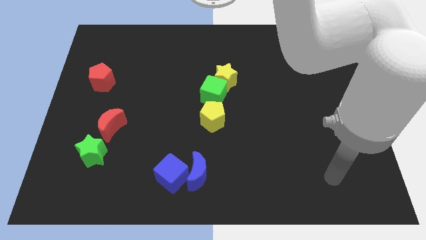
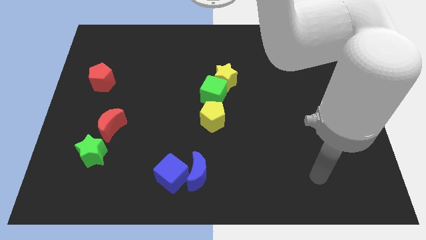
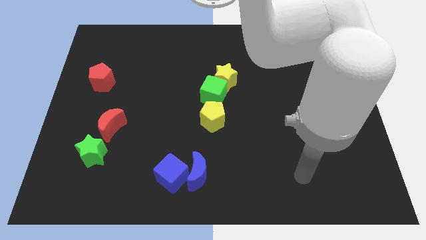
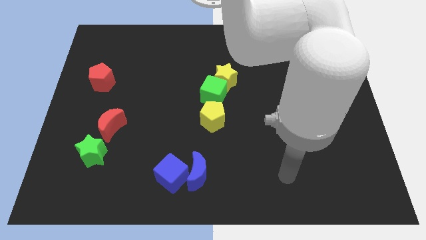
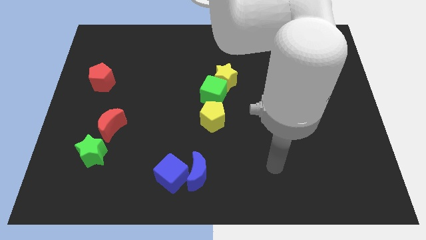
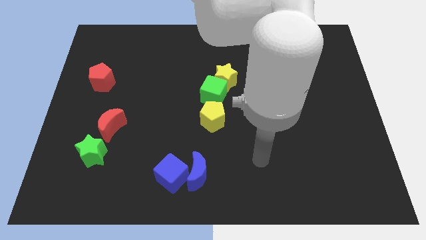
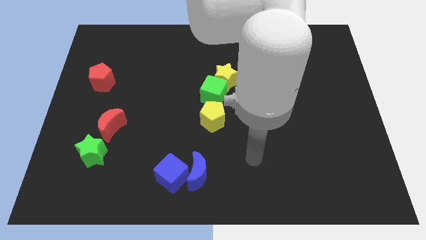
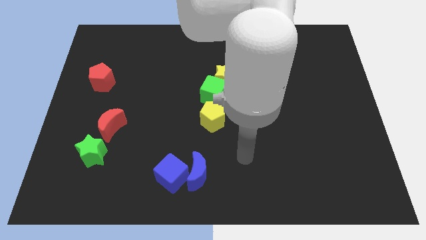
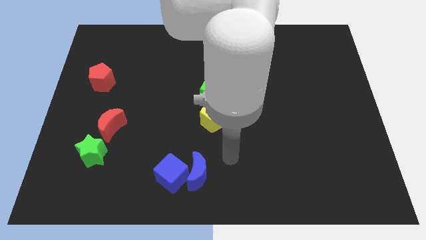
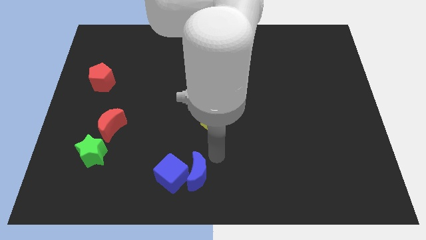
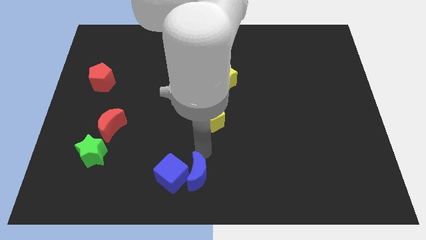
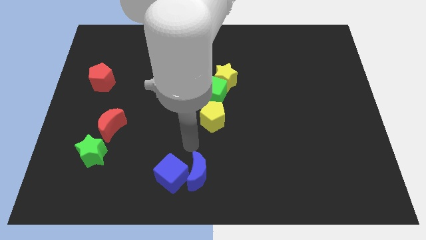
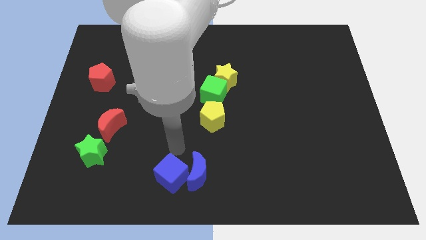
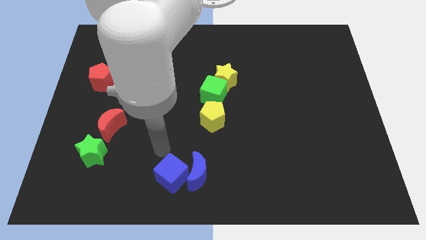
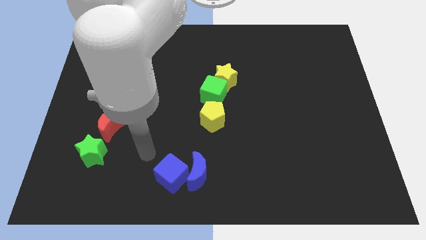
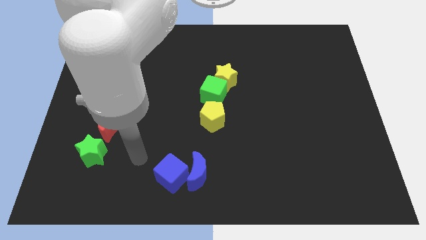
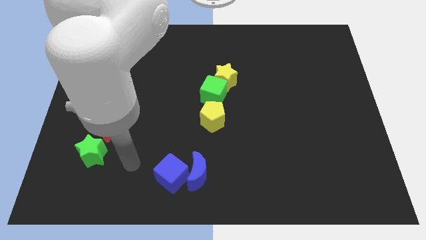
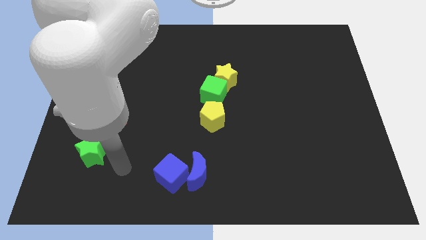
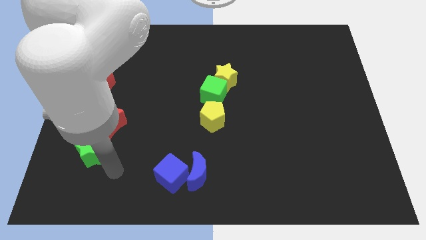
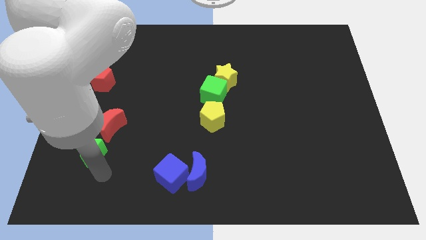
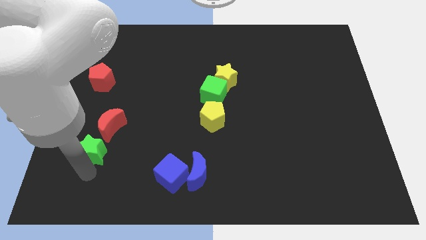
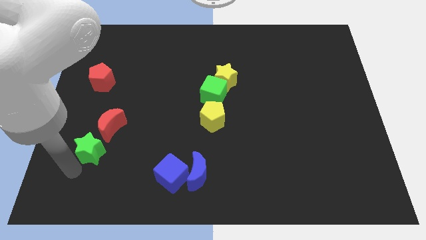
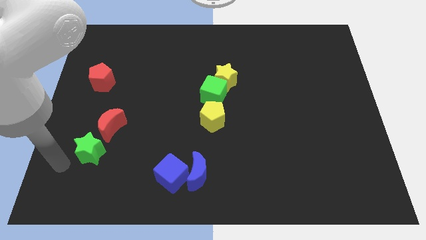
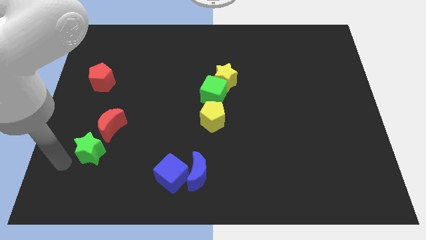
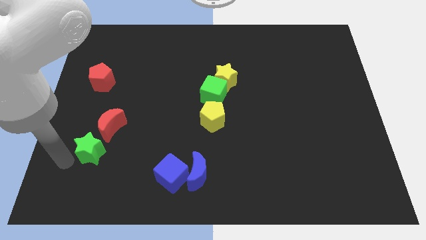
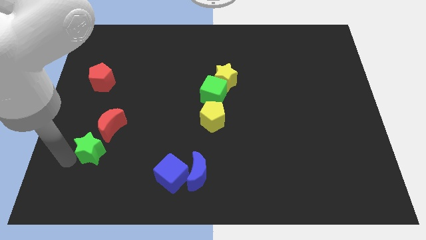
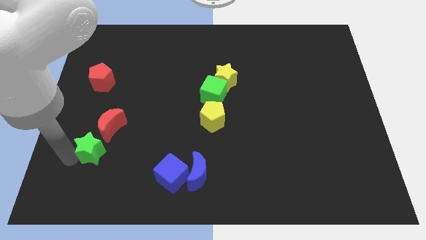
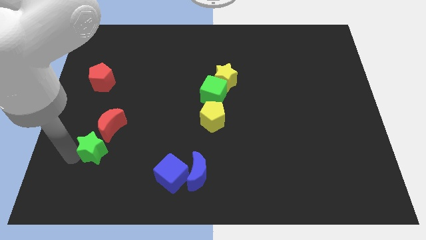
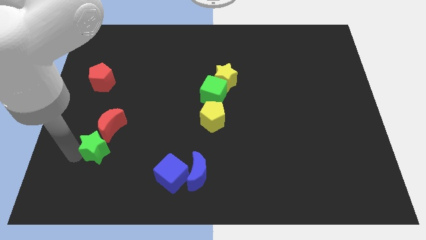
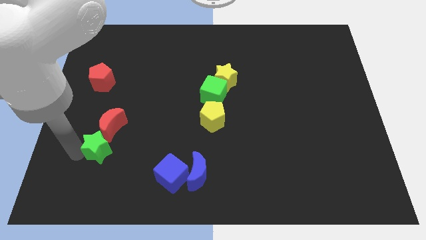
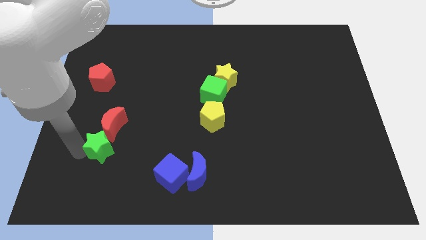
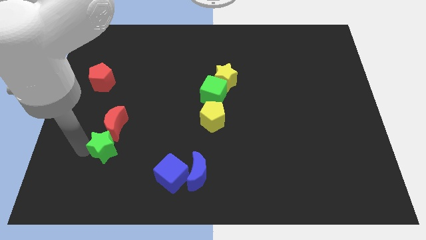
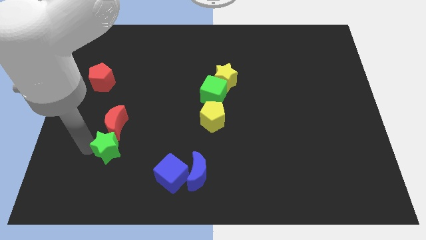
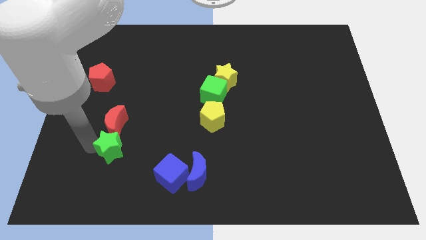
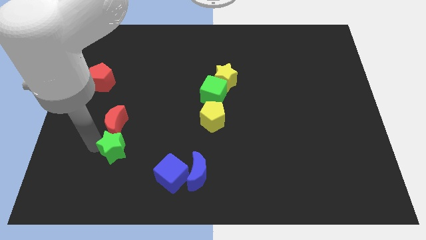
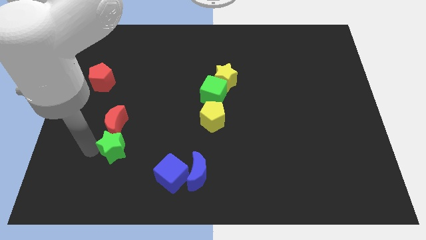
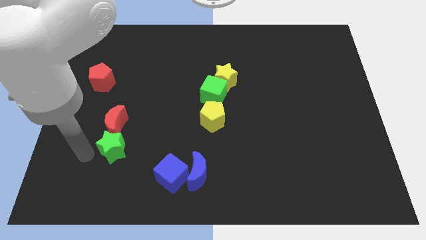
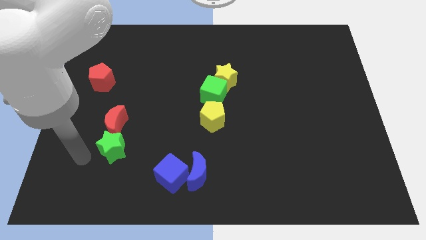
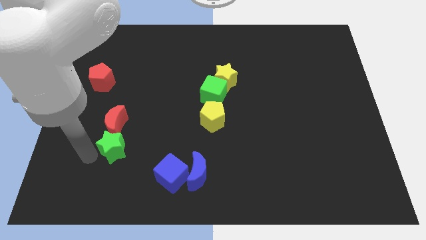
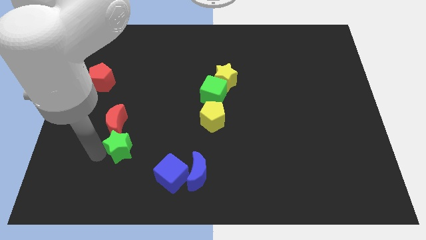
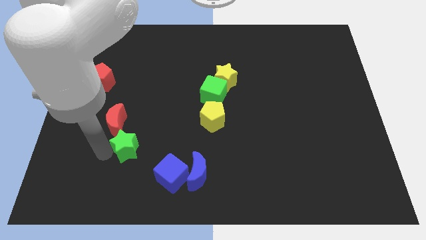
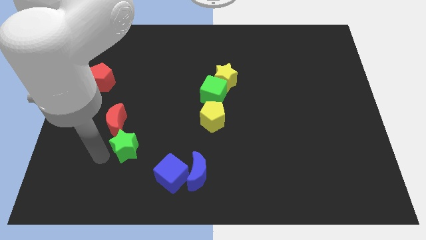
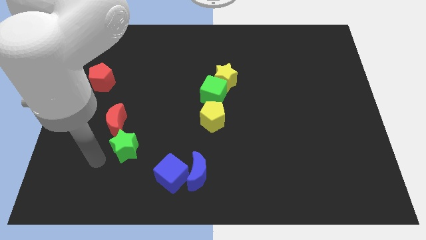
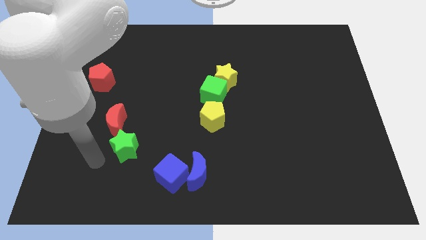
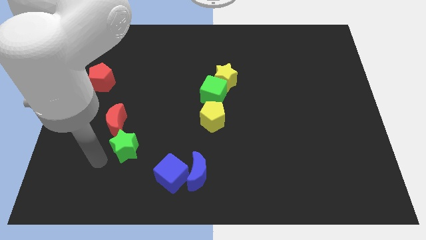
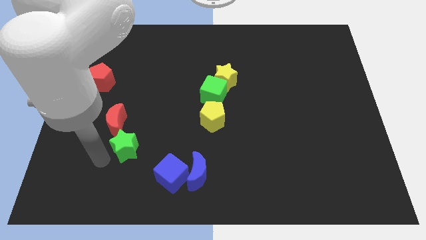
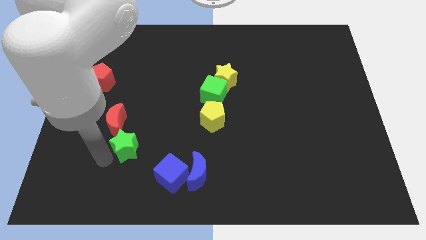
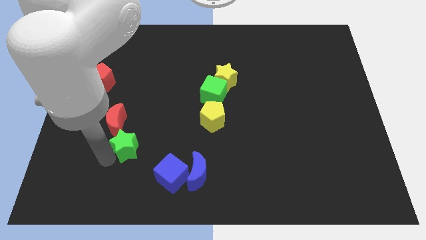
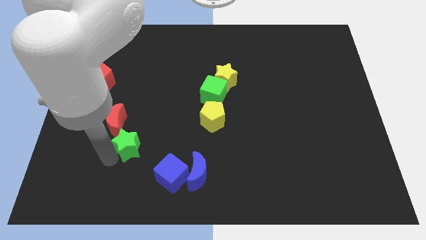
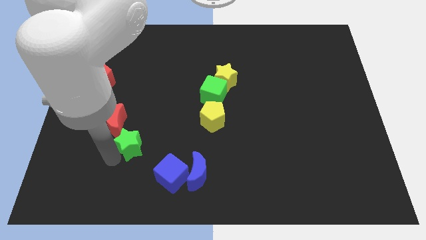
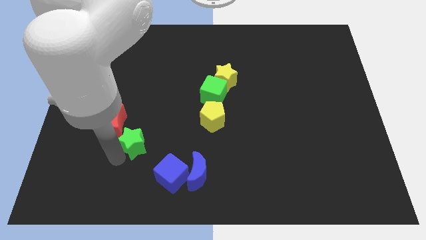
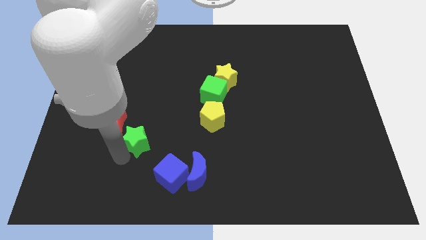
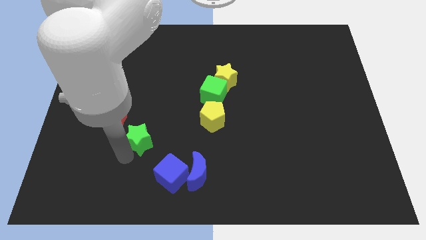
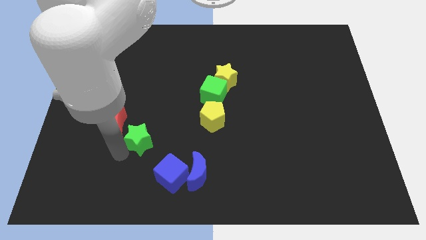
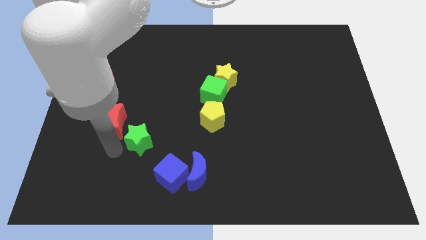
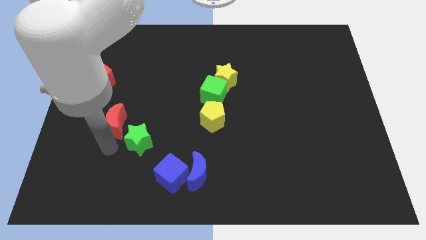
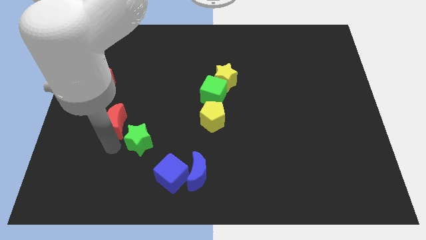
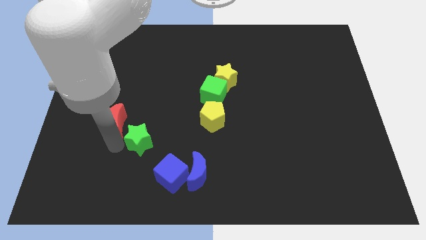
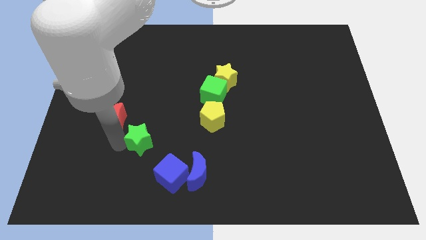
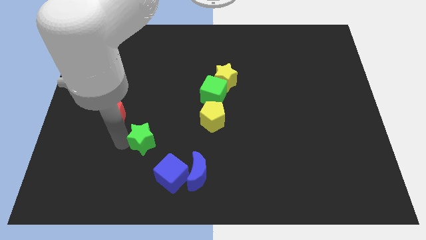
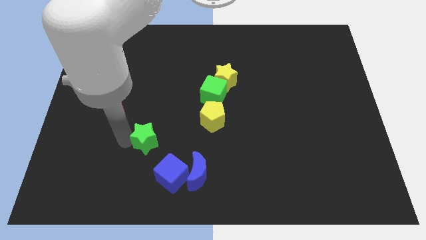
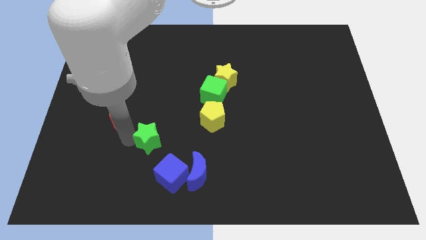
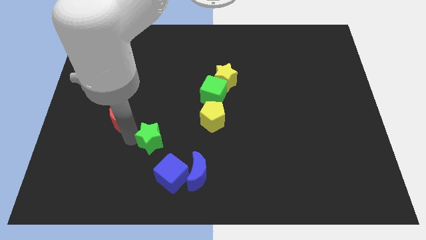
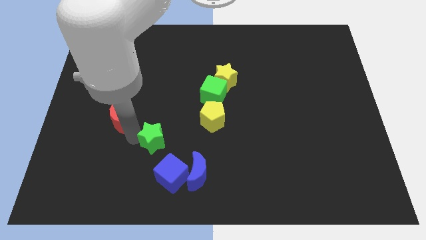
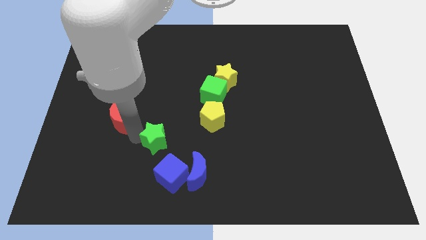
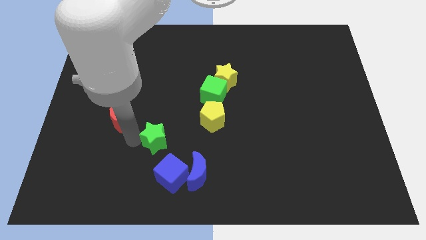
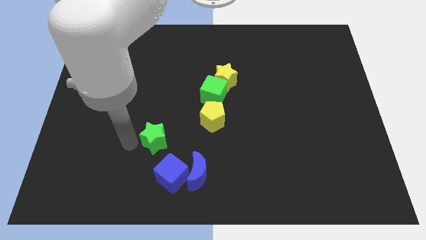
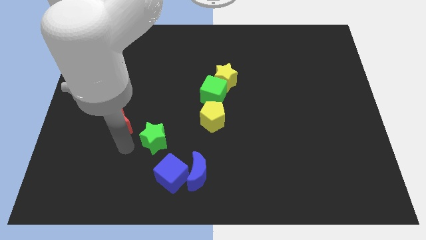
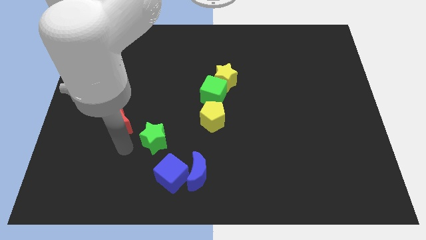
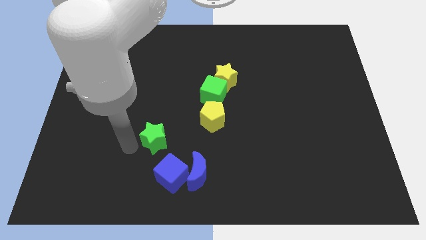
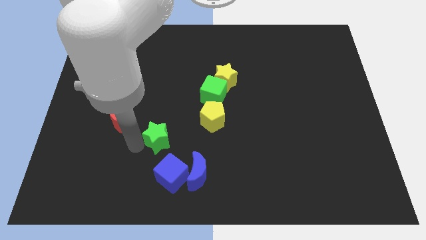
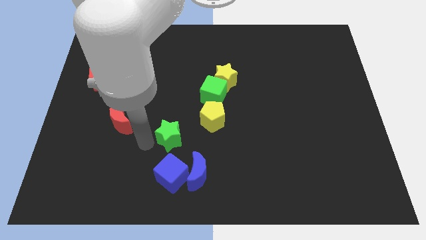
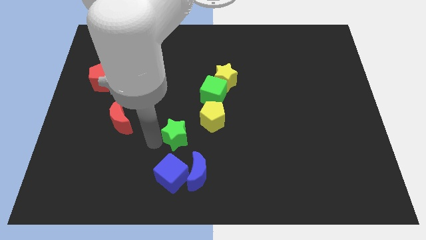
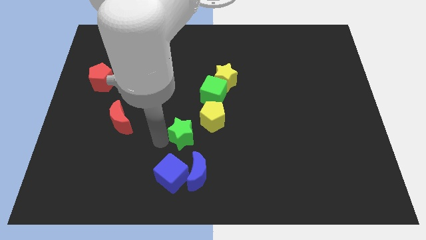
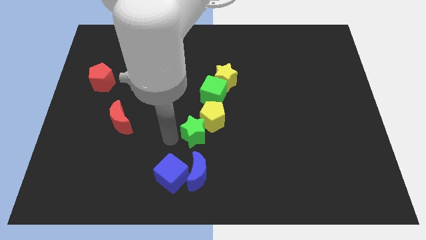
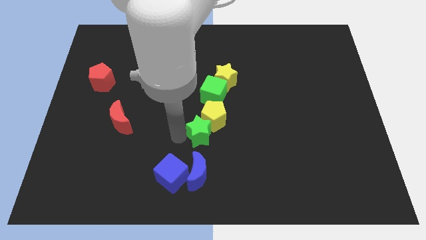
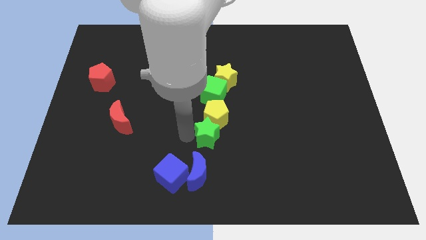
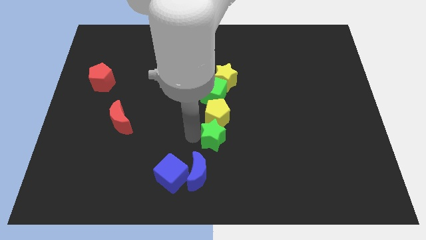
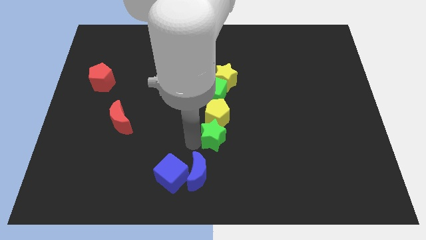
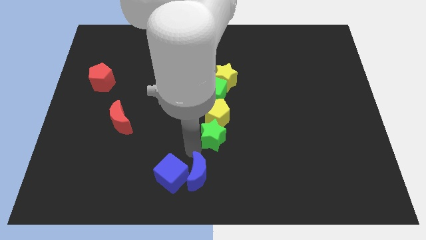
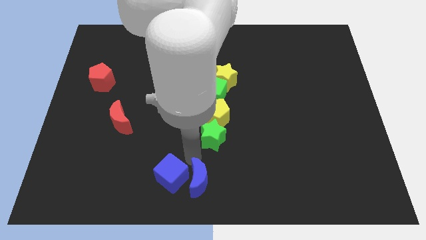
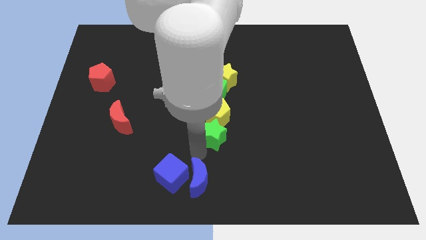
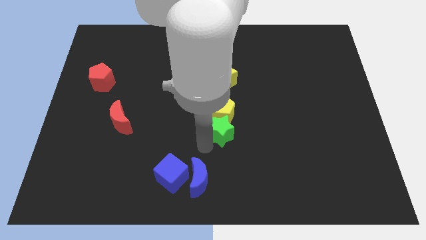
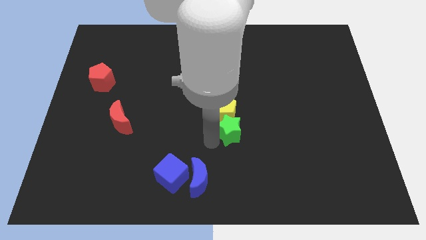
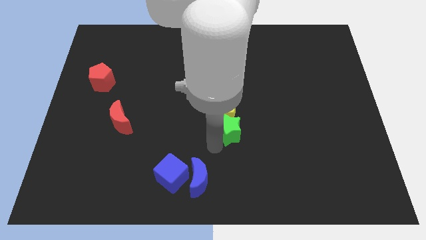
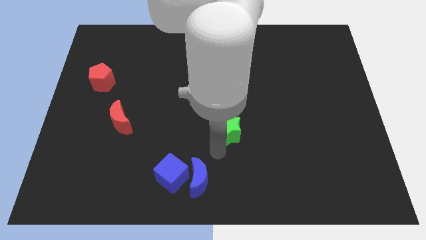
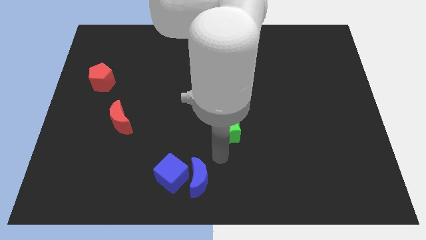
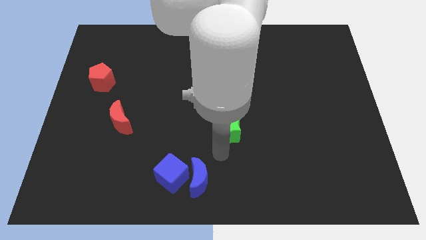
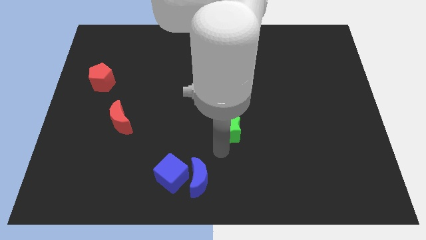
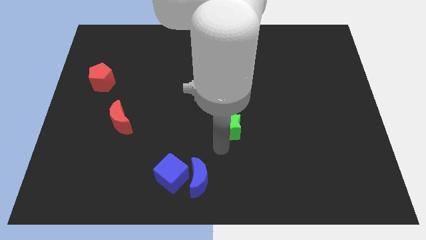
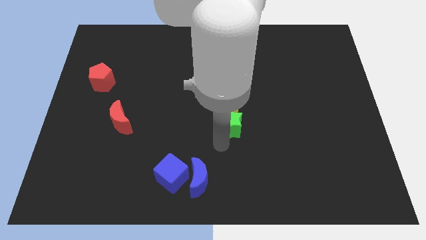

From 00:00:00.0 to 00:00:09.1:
move the green star to the bottom right of the green cube
